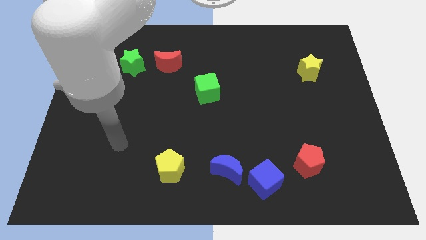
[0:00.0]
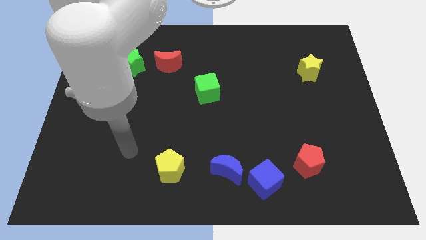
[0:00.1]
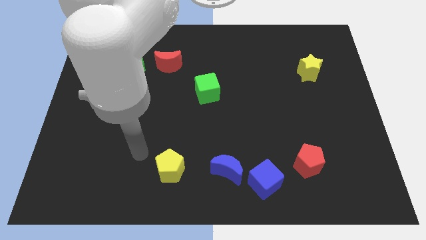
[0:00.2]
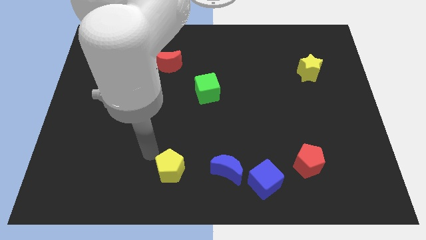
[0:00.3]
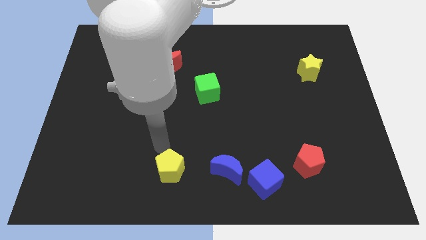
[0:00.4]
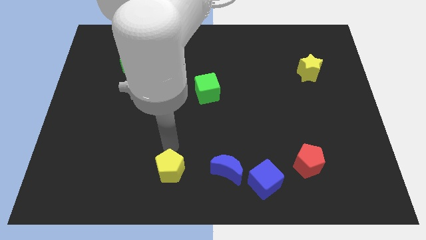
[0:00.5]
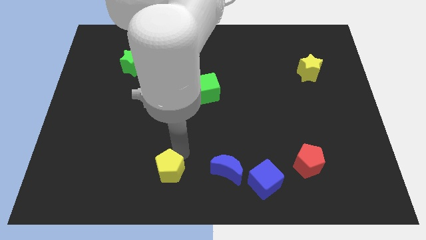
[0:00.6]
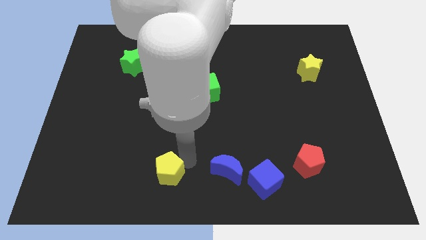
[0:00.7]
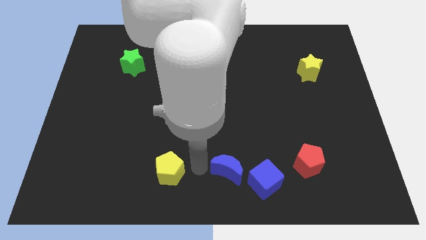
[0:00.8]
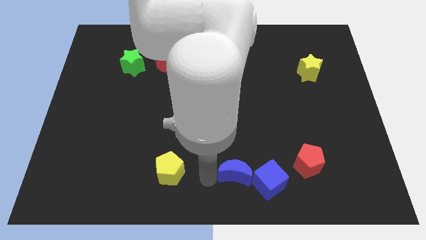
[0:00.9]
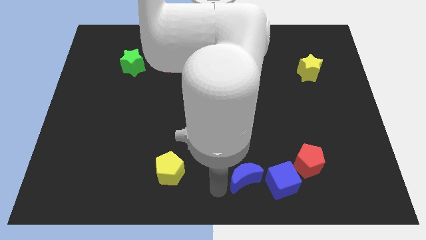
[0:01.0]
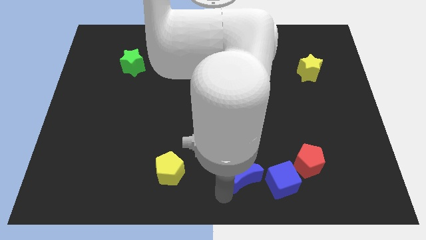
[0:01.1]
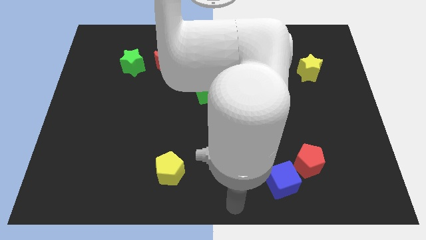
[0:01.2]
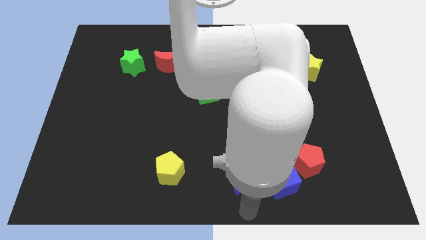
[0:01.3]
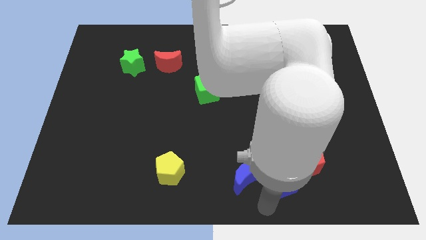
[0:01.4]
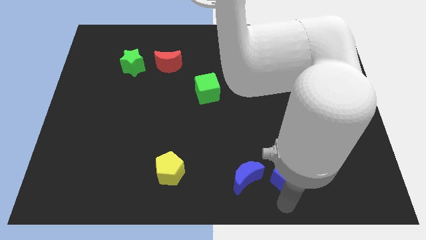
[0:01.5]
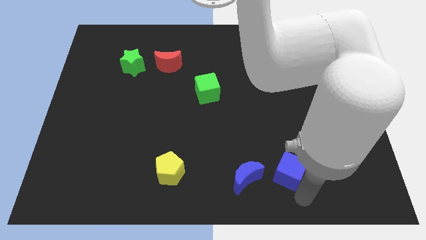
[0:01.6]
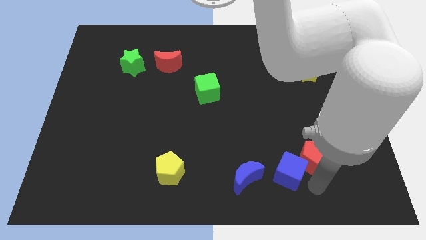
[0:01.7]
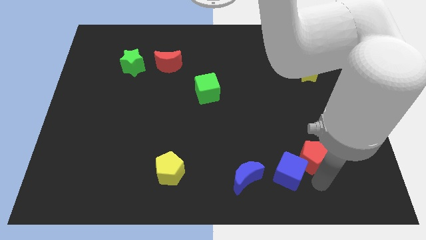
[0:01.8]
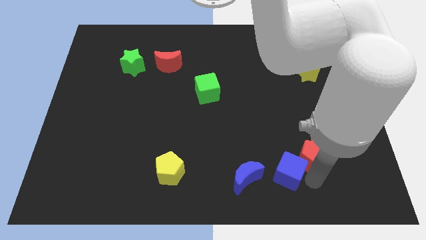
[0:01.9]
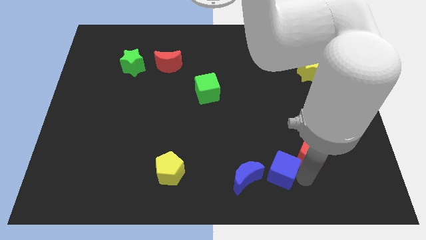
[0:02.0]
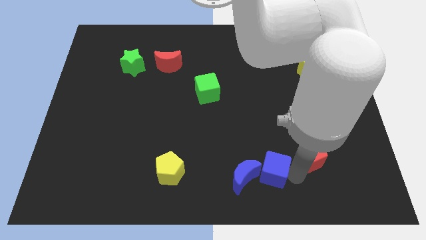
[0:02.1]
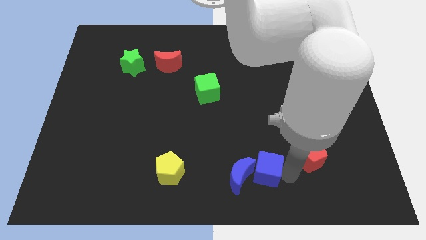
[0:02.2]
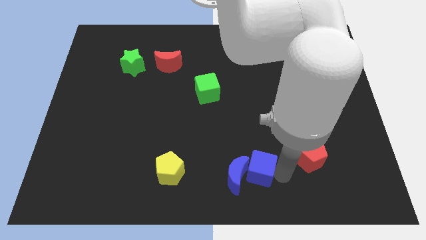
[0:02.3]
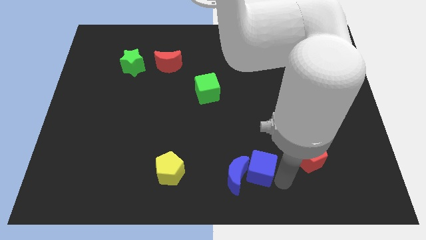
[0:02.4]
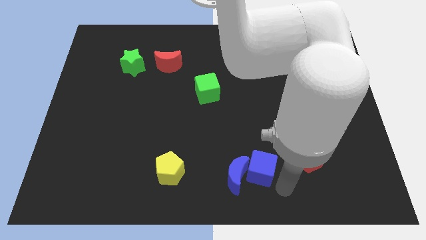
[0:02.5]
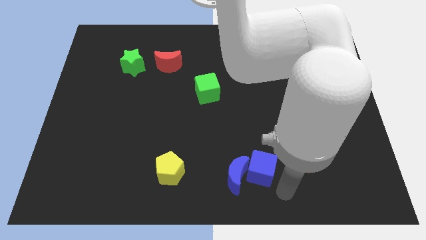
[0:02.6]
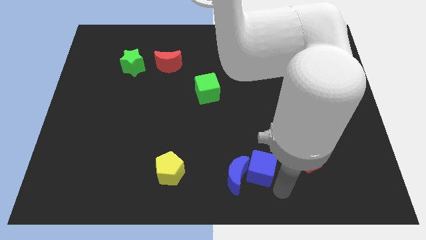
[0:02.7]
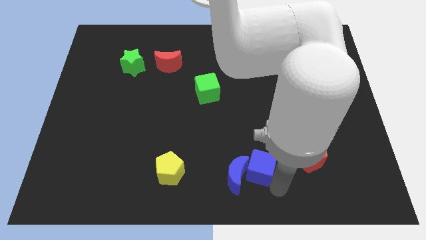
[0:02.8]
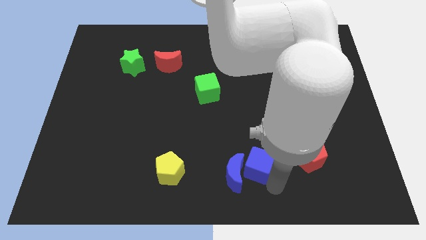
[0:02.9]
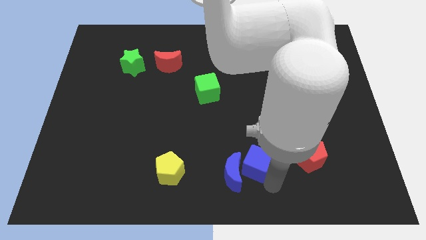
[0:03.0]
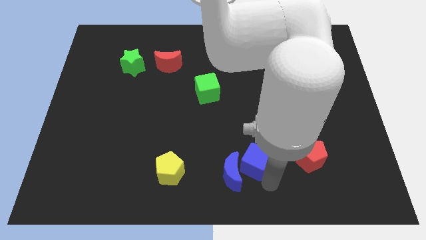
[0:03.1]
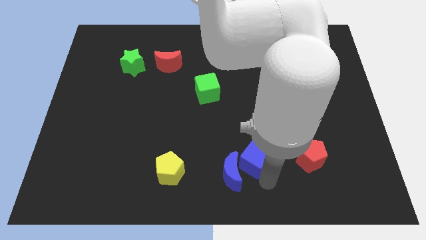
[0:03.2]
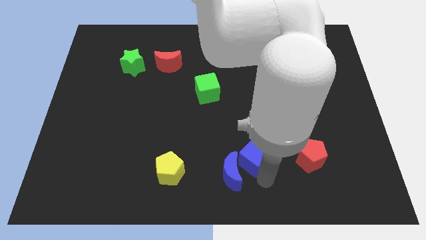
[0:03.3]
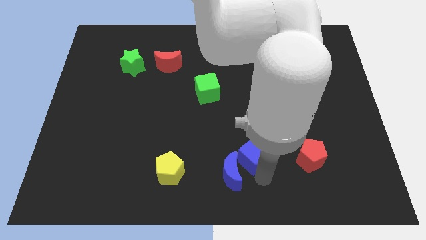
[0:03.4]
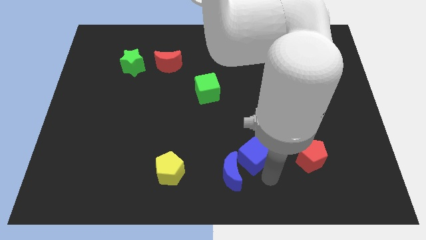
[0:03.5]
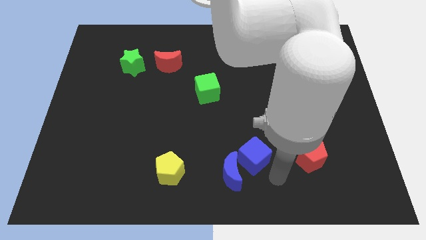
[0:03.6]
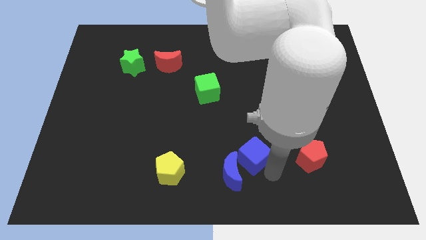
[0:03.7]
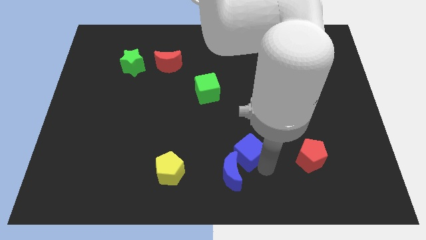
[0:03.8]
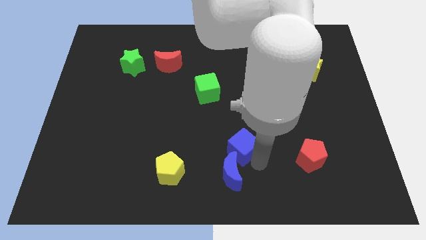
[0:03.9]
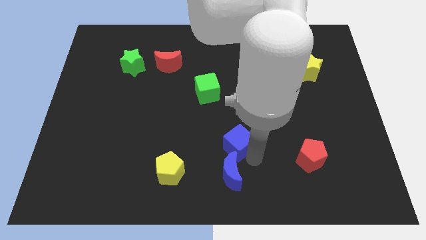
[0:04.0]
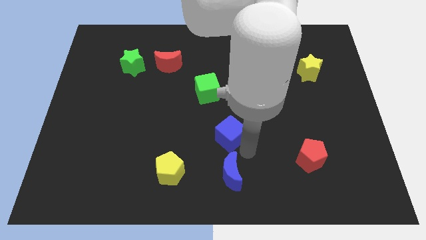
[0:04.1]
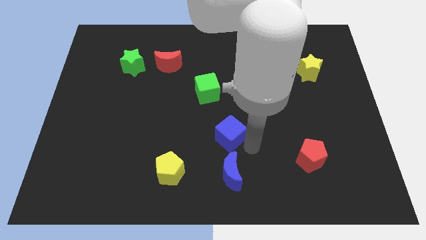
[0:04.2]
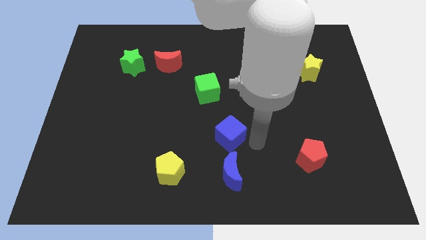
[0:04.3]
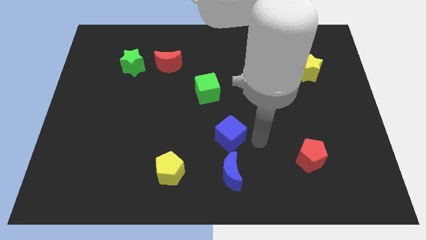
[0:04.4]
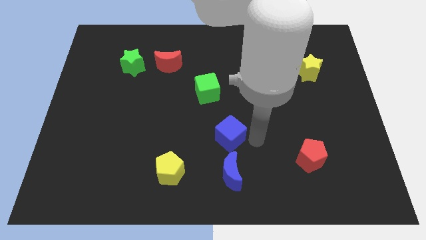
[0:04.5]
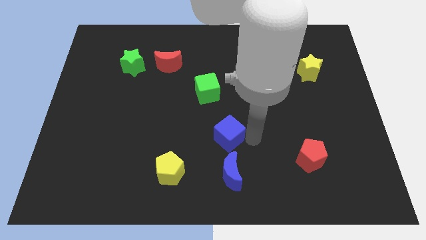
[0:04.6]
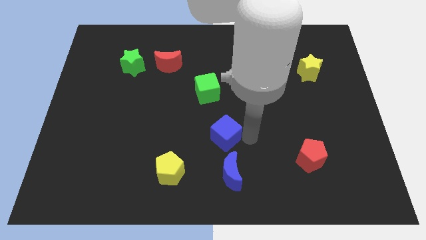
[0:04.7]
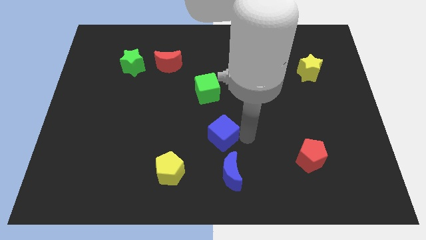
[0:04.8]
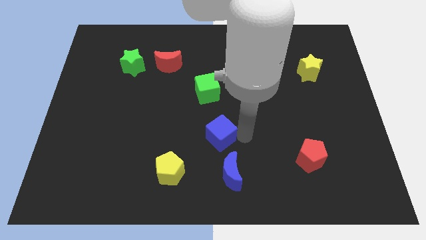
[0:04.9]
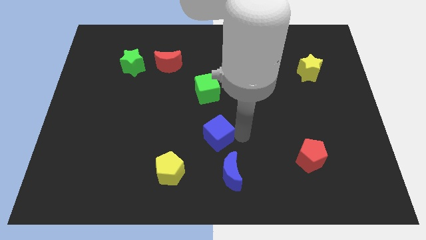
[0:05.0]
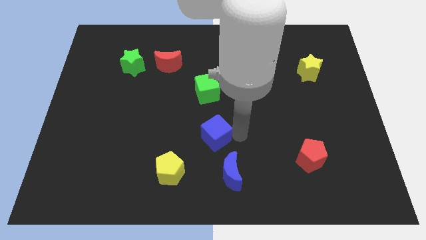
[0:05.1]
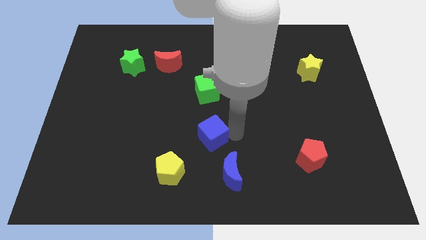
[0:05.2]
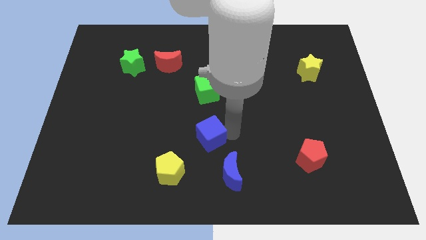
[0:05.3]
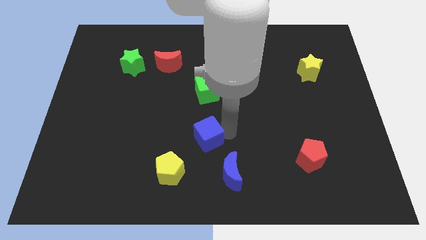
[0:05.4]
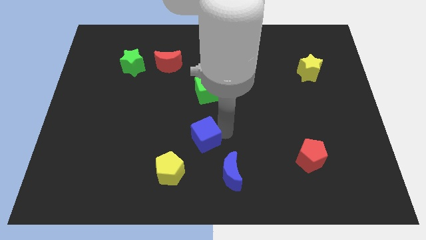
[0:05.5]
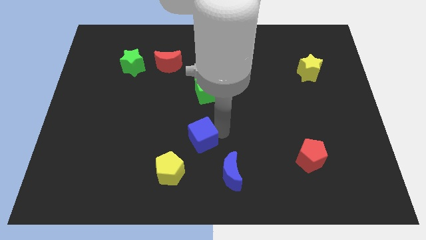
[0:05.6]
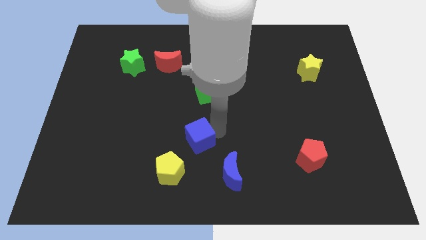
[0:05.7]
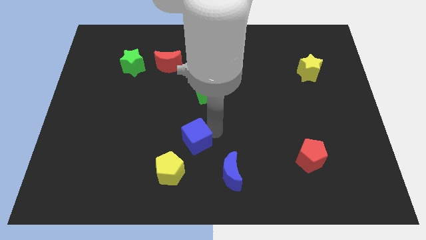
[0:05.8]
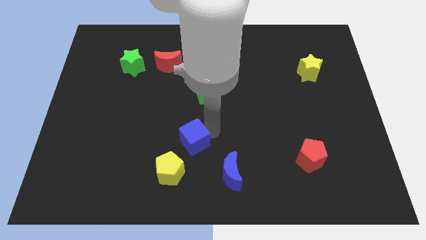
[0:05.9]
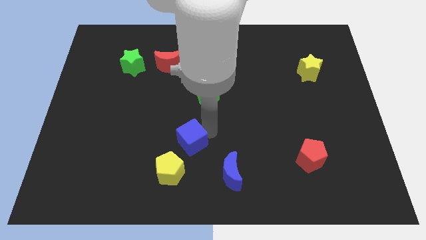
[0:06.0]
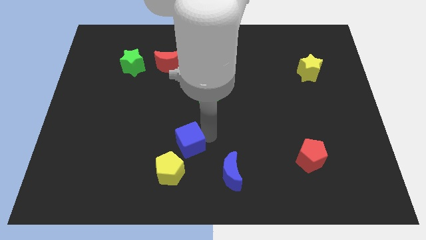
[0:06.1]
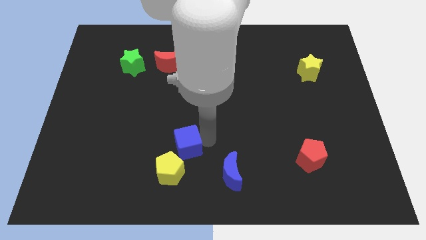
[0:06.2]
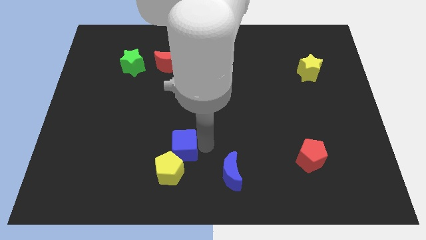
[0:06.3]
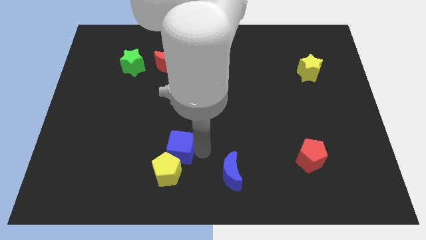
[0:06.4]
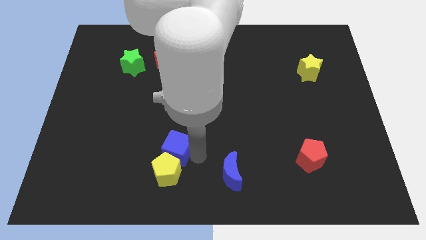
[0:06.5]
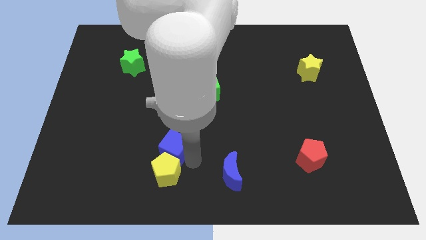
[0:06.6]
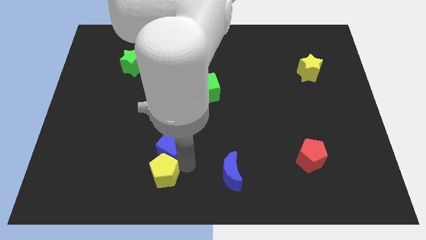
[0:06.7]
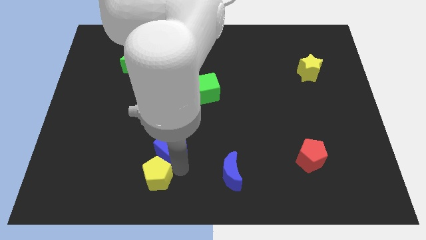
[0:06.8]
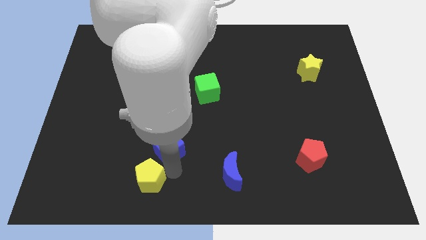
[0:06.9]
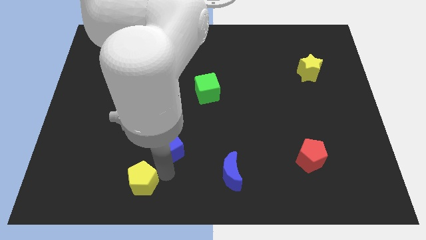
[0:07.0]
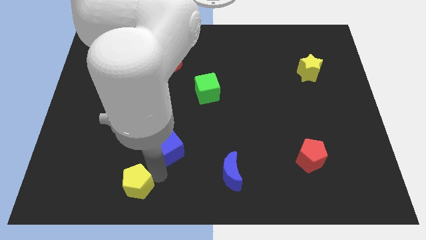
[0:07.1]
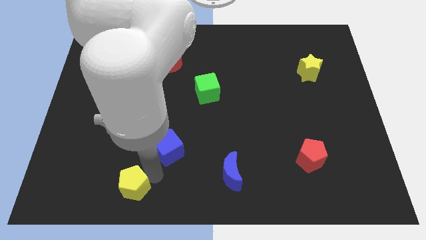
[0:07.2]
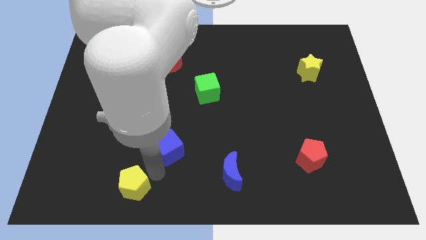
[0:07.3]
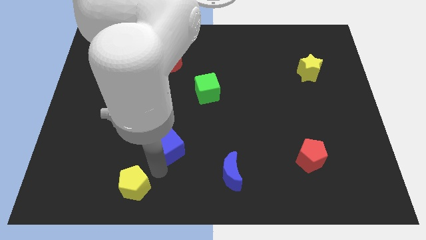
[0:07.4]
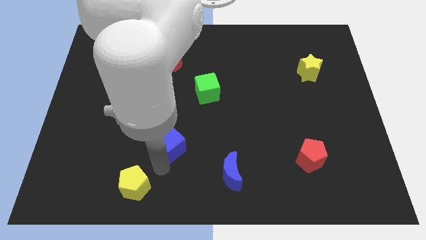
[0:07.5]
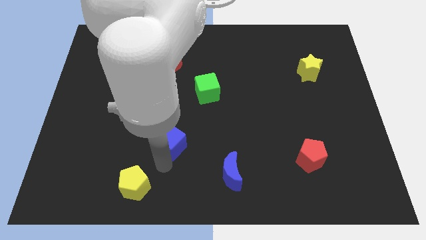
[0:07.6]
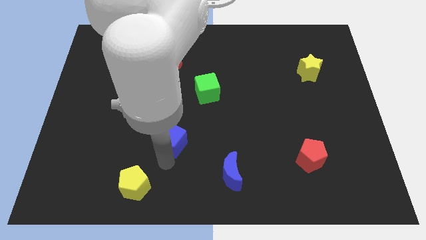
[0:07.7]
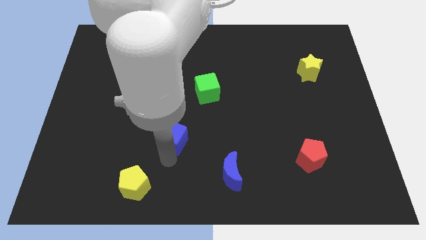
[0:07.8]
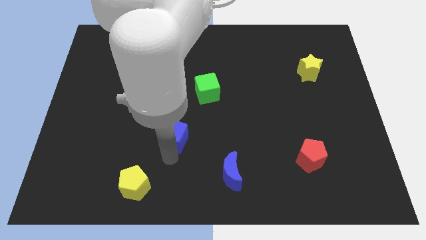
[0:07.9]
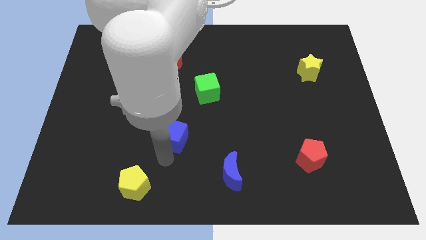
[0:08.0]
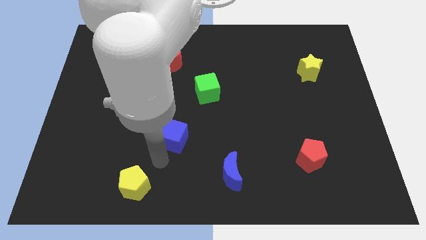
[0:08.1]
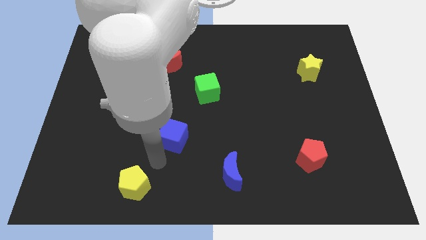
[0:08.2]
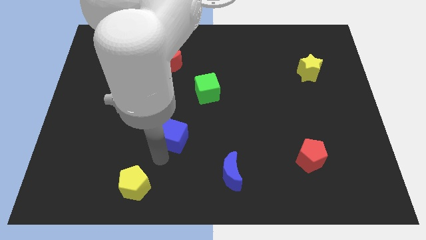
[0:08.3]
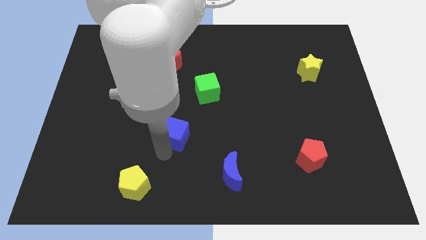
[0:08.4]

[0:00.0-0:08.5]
push the blue cube up and then to the left

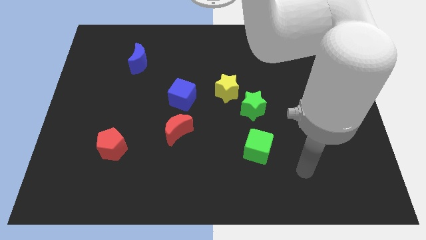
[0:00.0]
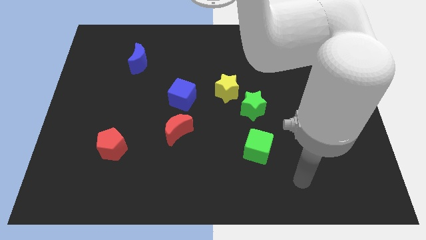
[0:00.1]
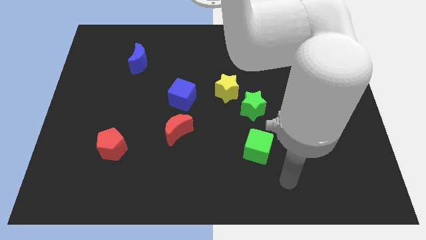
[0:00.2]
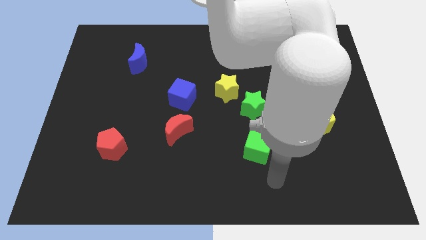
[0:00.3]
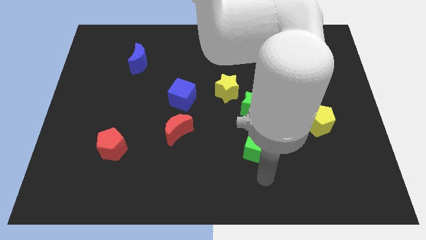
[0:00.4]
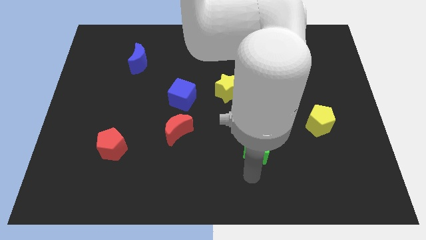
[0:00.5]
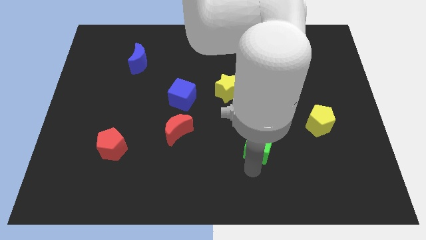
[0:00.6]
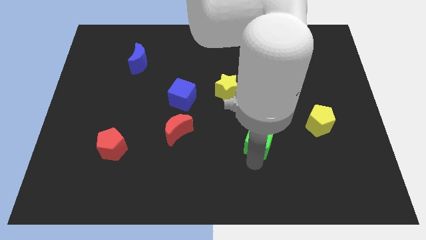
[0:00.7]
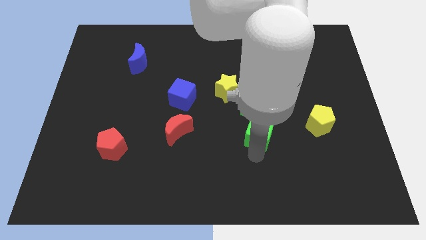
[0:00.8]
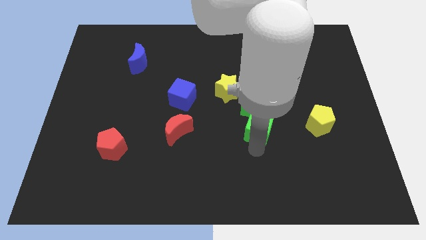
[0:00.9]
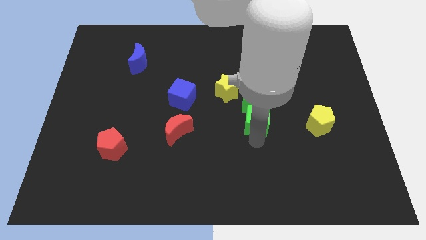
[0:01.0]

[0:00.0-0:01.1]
slide the green cube somewhat up
